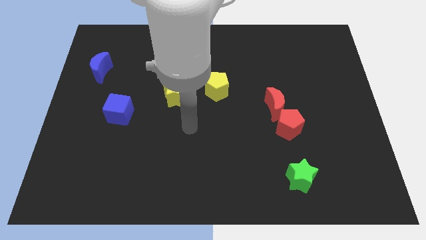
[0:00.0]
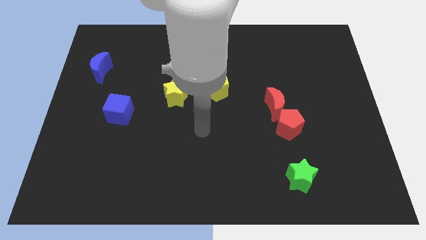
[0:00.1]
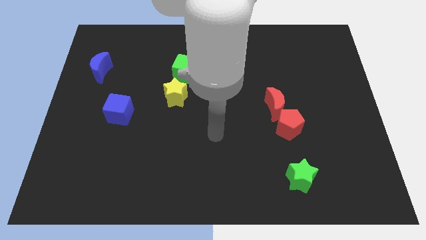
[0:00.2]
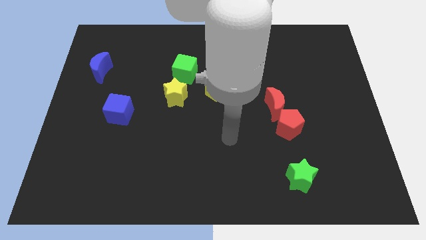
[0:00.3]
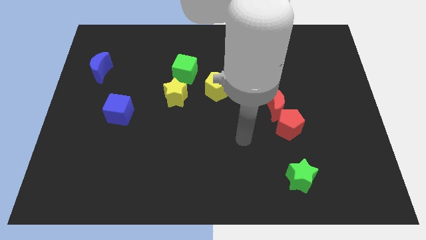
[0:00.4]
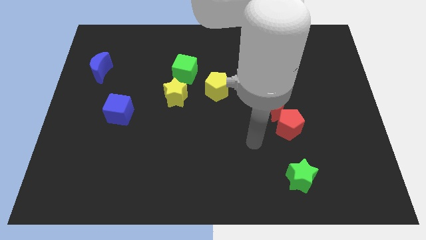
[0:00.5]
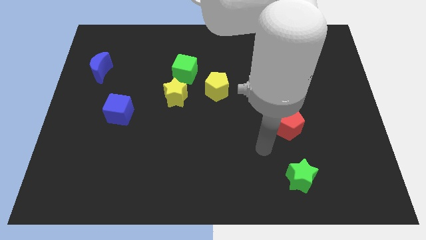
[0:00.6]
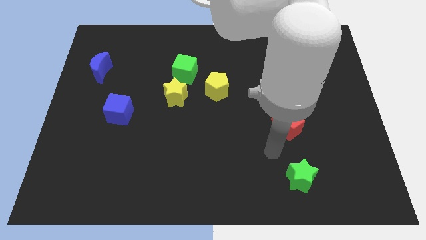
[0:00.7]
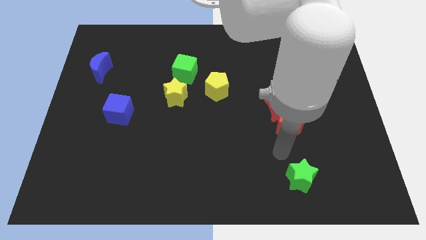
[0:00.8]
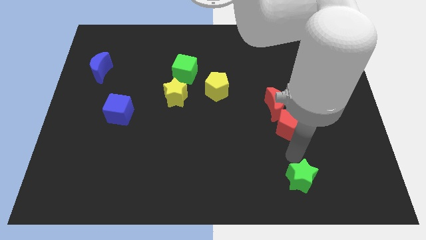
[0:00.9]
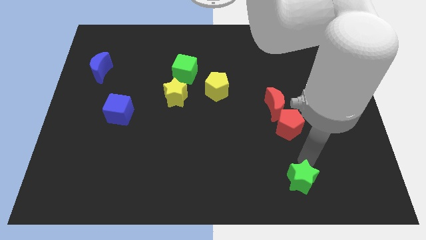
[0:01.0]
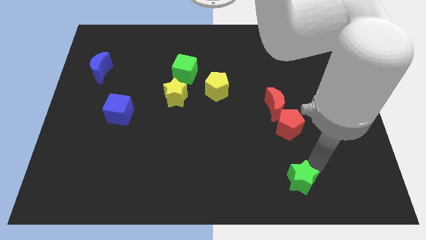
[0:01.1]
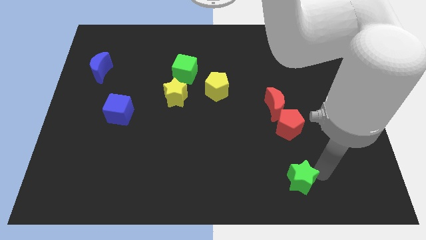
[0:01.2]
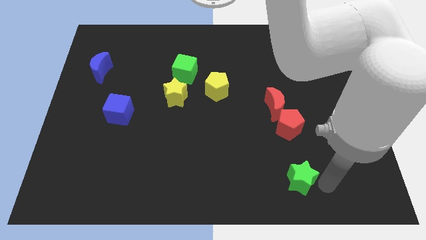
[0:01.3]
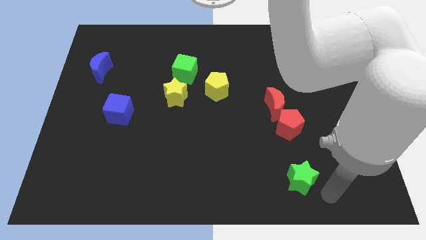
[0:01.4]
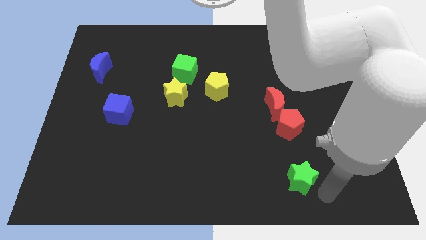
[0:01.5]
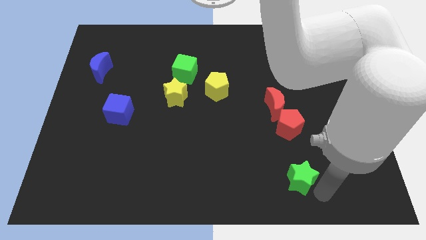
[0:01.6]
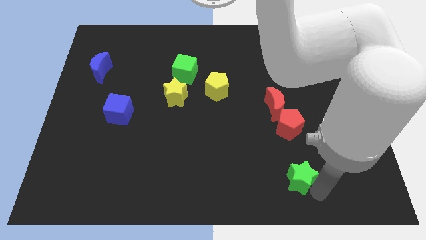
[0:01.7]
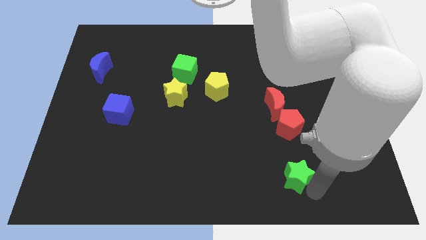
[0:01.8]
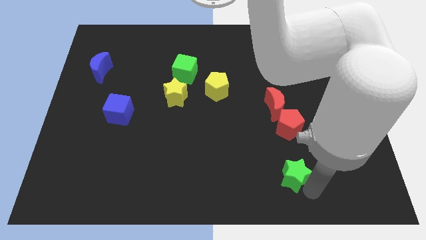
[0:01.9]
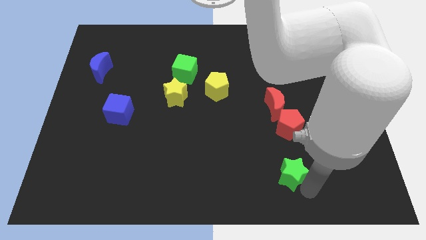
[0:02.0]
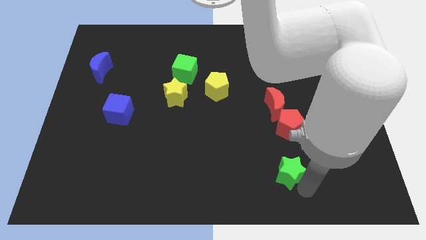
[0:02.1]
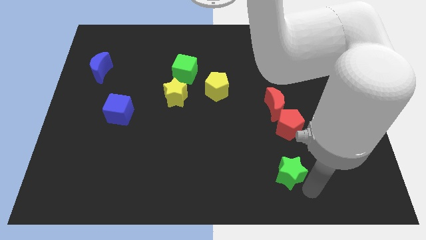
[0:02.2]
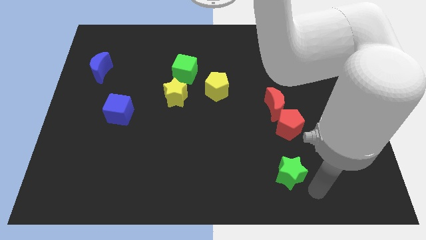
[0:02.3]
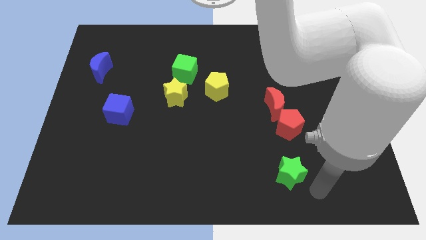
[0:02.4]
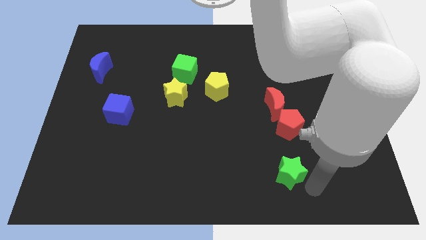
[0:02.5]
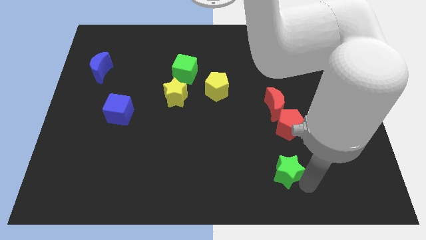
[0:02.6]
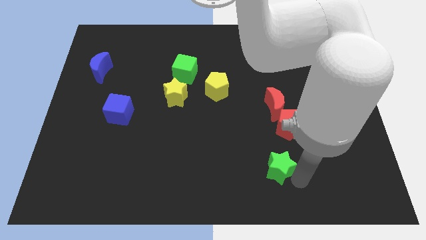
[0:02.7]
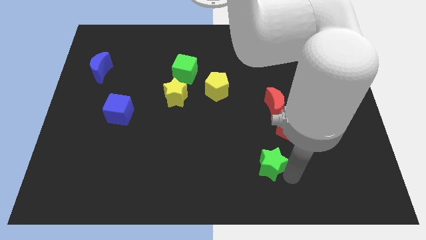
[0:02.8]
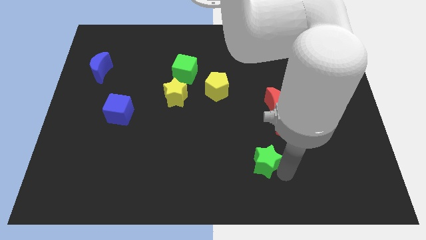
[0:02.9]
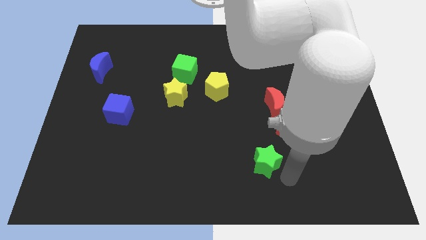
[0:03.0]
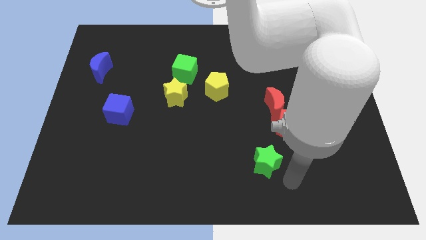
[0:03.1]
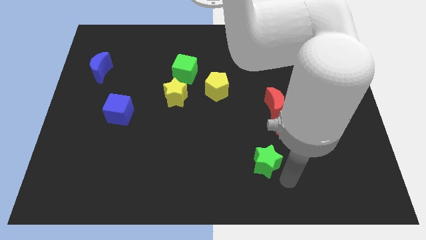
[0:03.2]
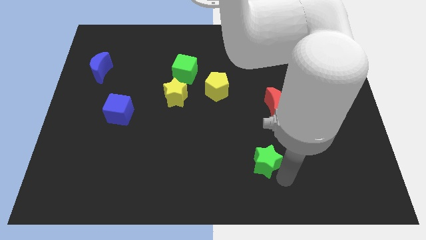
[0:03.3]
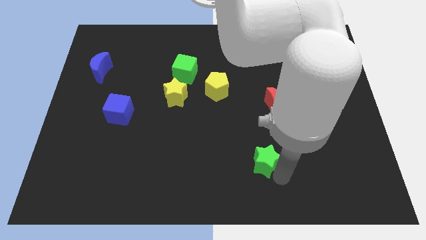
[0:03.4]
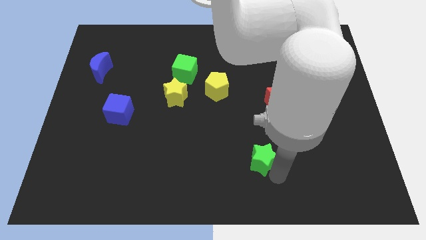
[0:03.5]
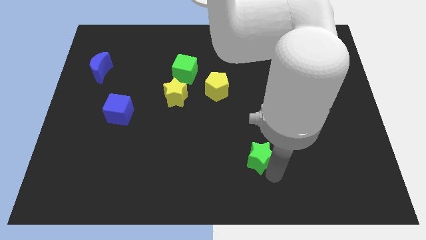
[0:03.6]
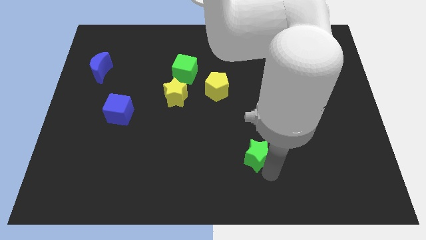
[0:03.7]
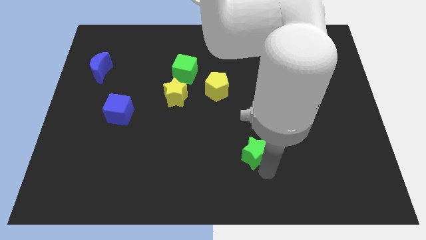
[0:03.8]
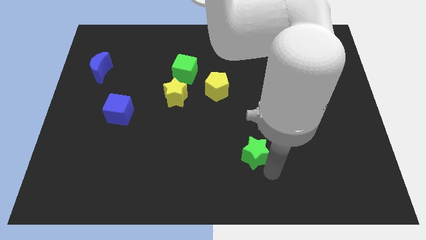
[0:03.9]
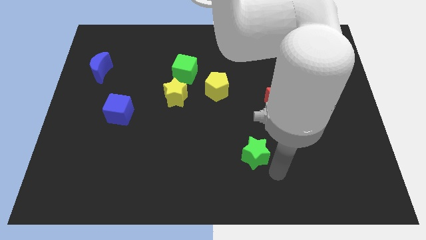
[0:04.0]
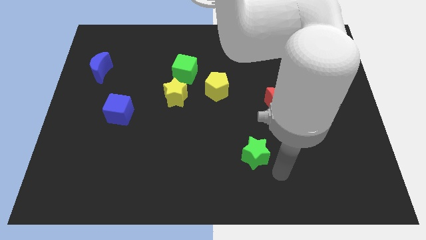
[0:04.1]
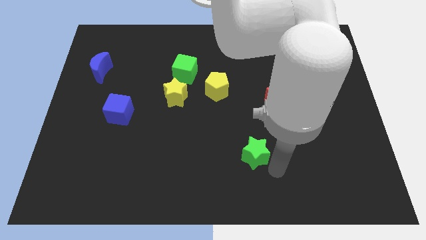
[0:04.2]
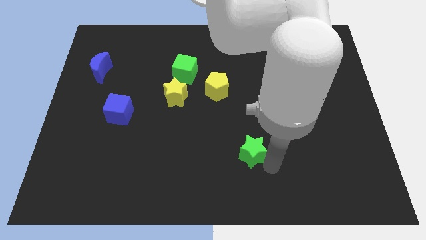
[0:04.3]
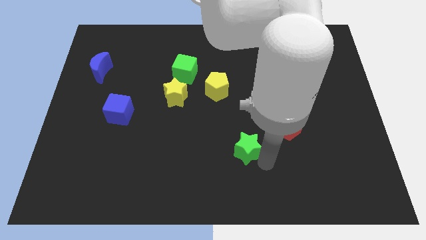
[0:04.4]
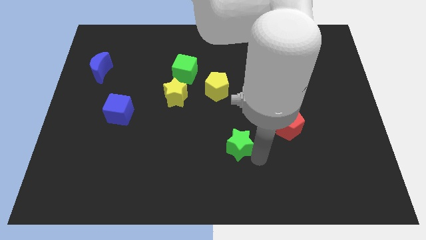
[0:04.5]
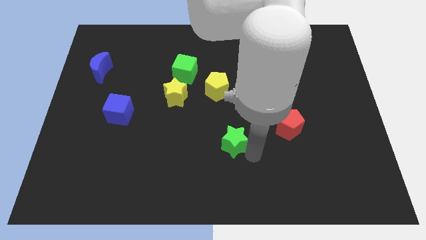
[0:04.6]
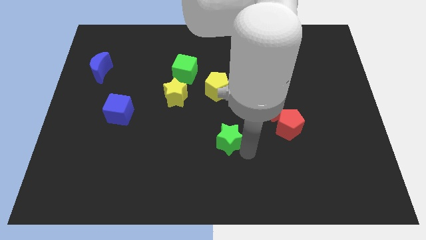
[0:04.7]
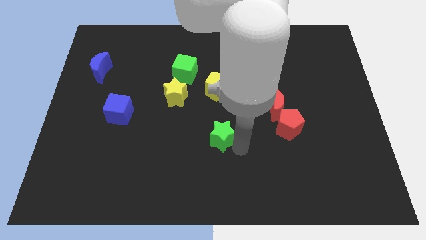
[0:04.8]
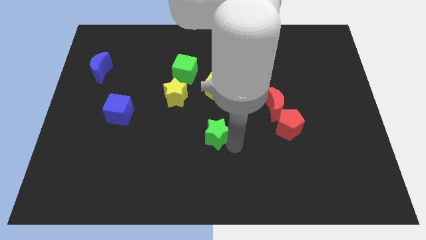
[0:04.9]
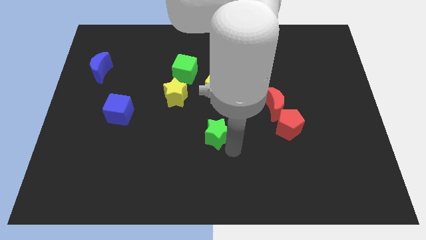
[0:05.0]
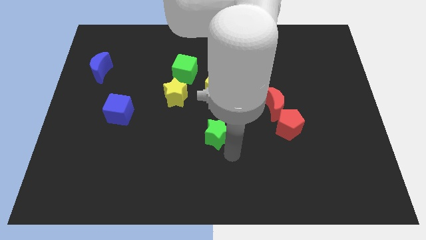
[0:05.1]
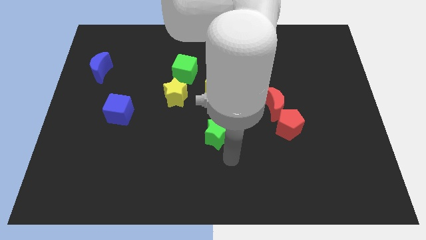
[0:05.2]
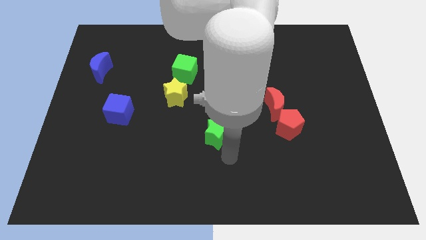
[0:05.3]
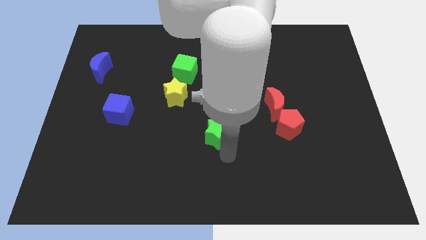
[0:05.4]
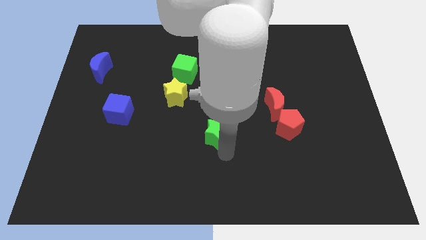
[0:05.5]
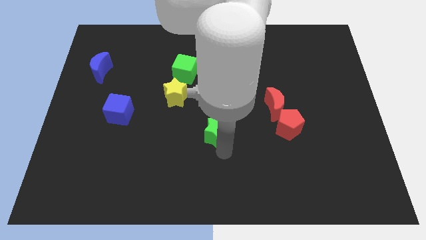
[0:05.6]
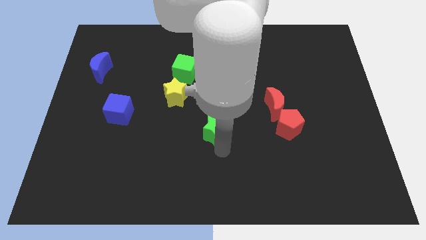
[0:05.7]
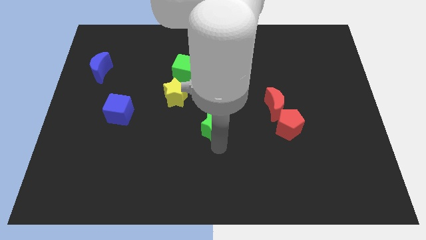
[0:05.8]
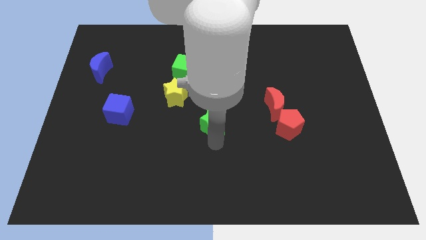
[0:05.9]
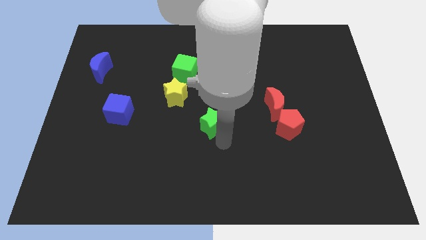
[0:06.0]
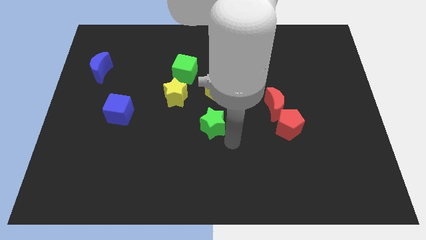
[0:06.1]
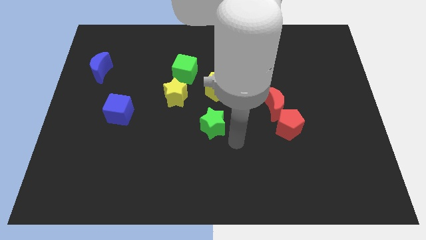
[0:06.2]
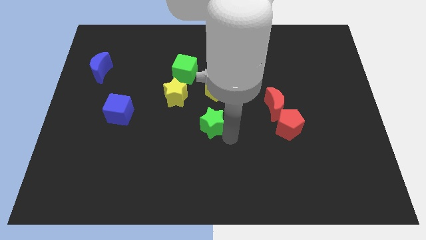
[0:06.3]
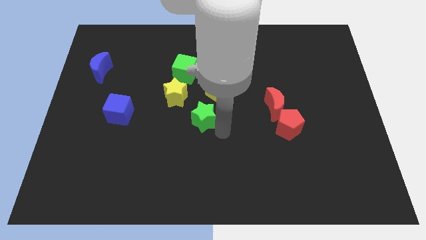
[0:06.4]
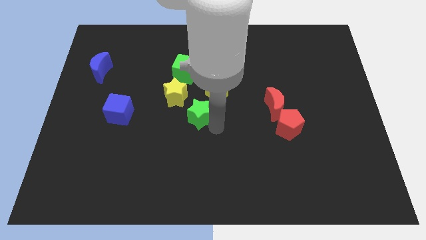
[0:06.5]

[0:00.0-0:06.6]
move the green star below the green cube

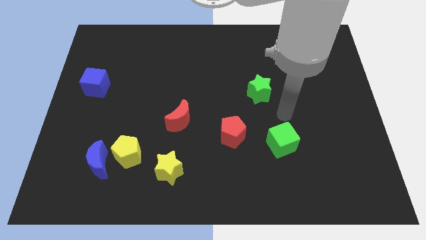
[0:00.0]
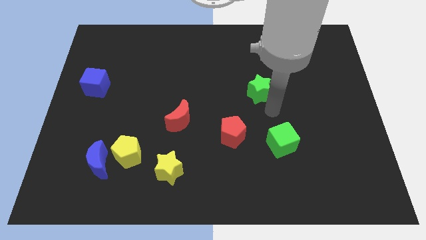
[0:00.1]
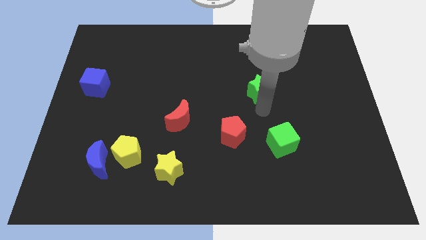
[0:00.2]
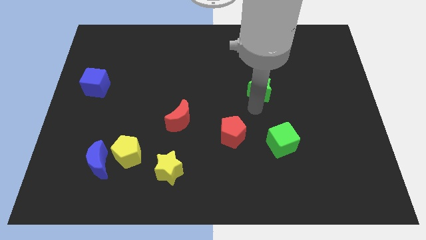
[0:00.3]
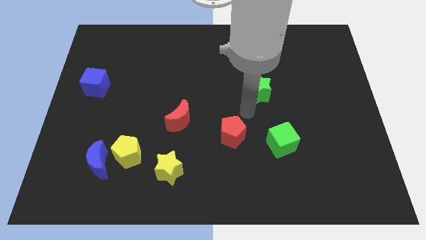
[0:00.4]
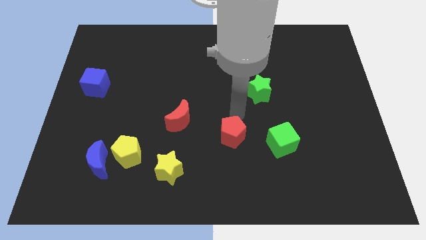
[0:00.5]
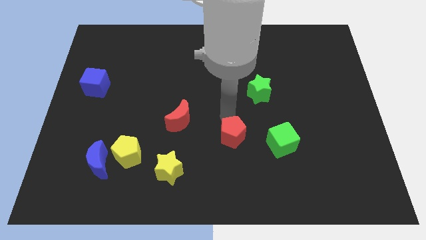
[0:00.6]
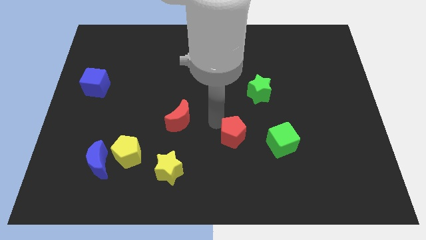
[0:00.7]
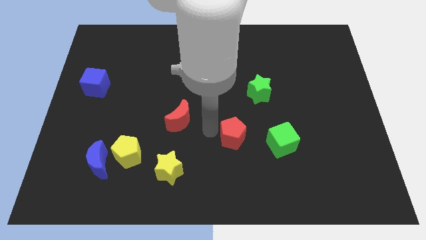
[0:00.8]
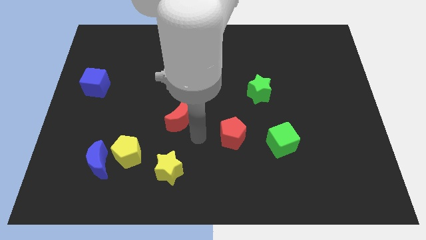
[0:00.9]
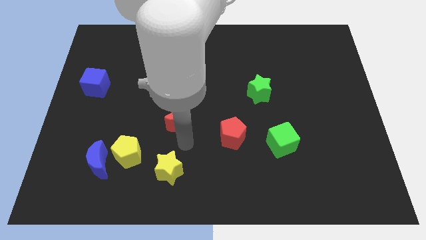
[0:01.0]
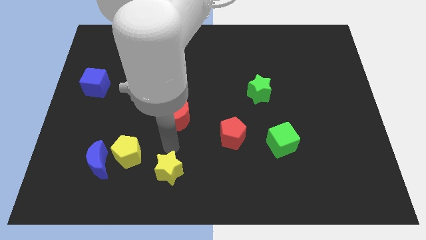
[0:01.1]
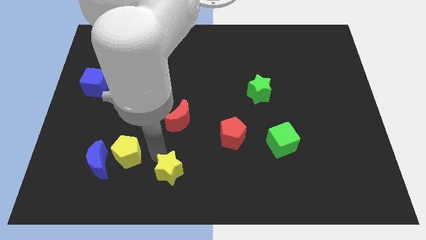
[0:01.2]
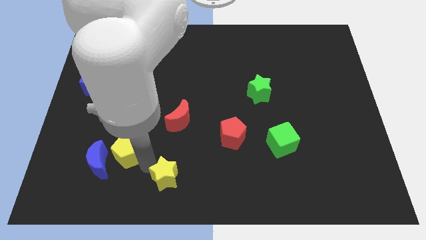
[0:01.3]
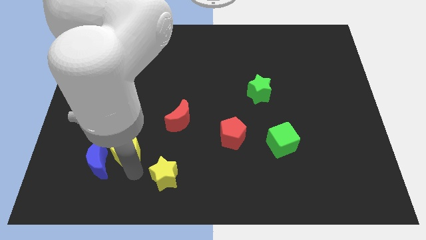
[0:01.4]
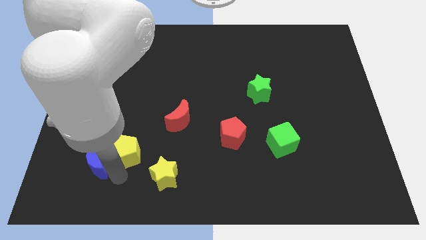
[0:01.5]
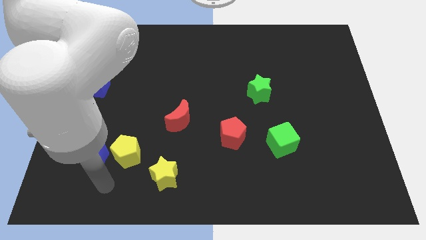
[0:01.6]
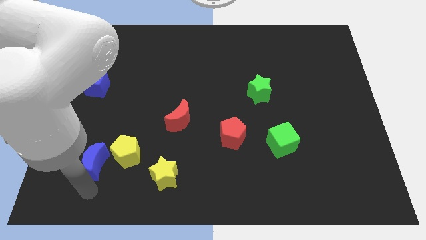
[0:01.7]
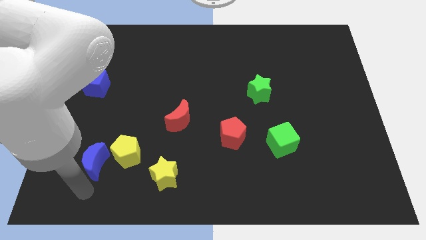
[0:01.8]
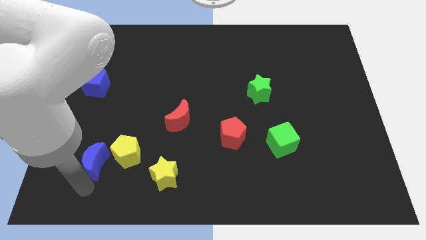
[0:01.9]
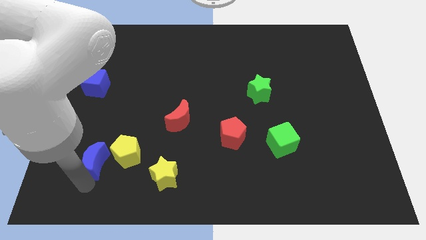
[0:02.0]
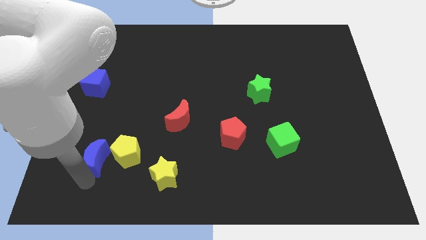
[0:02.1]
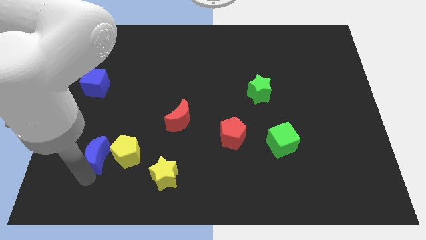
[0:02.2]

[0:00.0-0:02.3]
push the blue moon to the top left of the yellow pentagon
